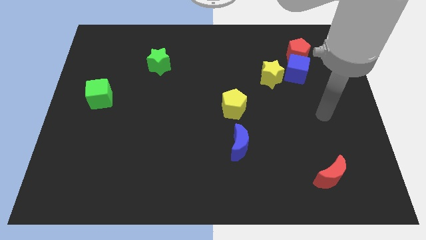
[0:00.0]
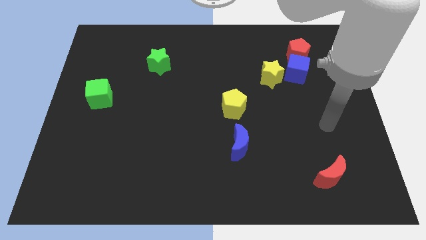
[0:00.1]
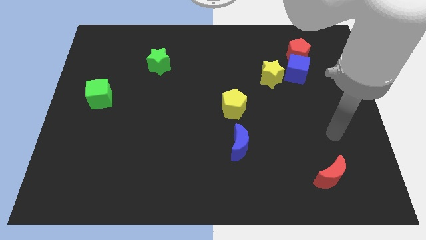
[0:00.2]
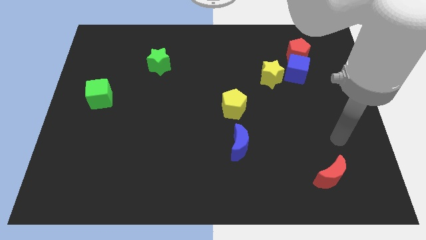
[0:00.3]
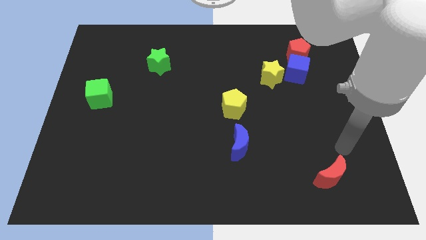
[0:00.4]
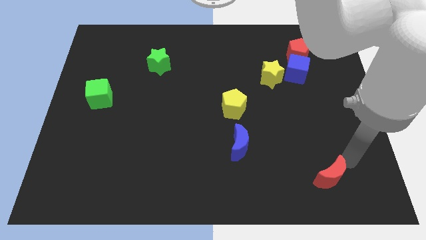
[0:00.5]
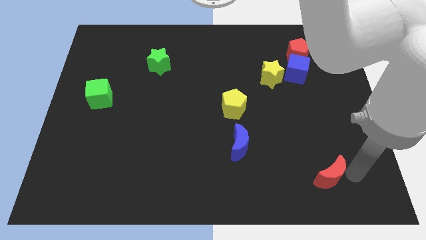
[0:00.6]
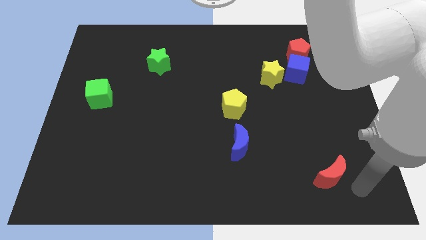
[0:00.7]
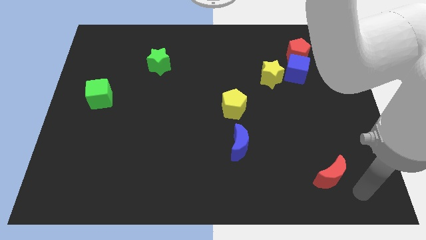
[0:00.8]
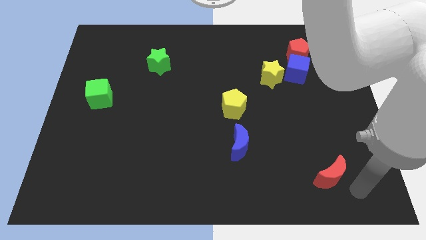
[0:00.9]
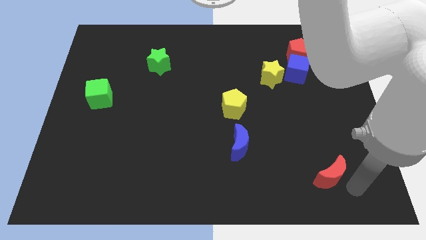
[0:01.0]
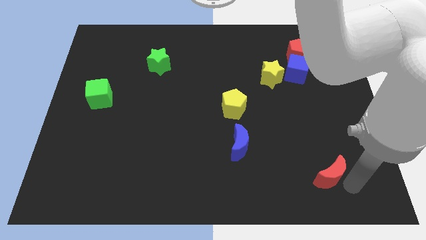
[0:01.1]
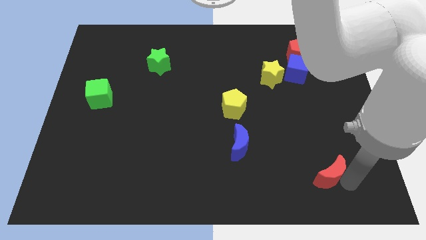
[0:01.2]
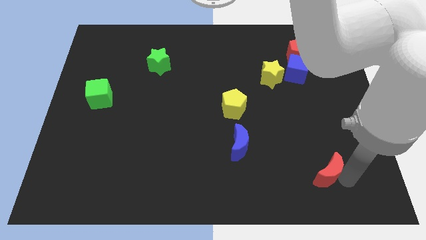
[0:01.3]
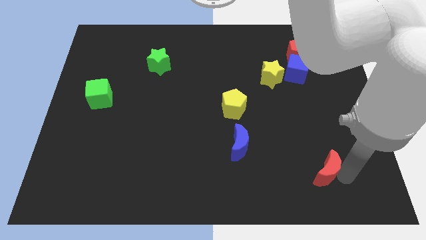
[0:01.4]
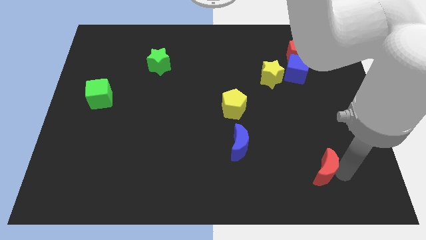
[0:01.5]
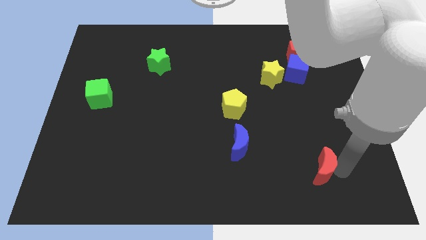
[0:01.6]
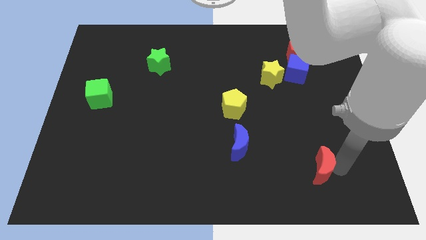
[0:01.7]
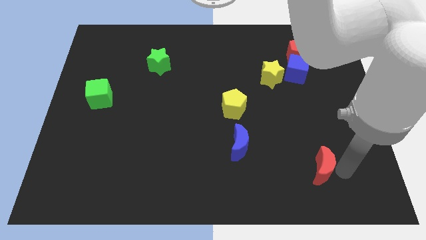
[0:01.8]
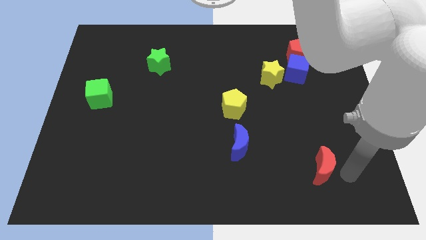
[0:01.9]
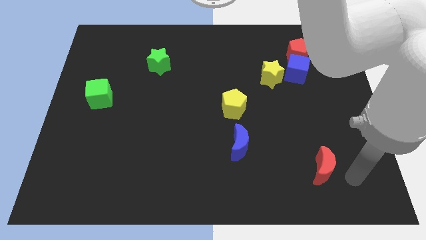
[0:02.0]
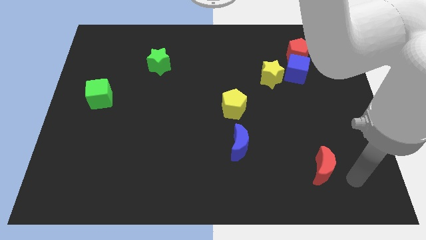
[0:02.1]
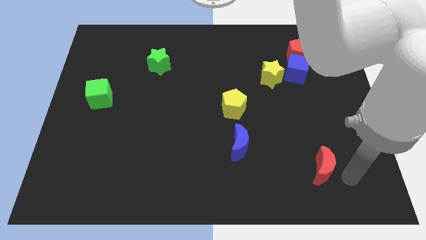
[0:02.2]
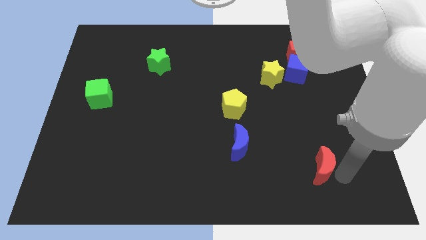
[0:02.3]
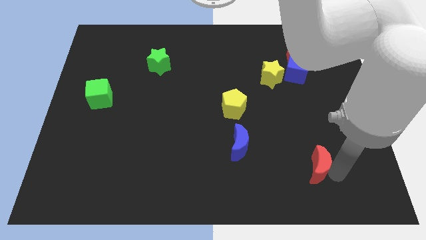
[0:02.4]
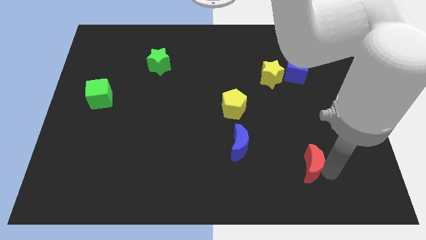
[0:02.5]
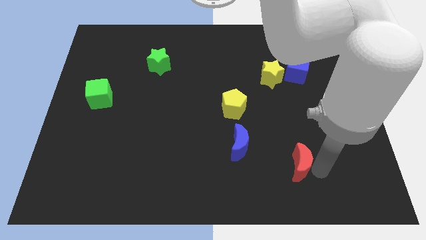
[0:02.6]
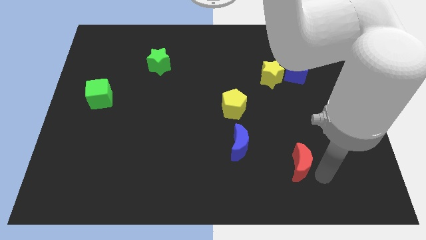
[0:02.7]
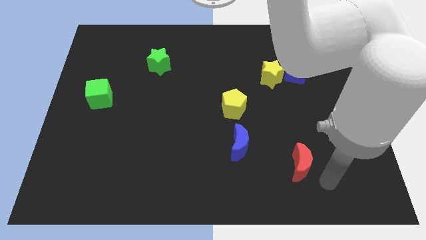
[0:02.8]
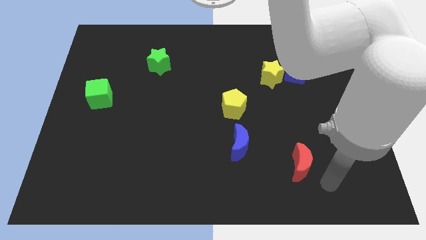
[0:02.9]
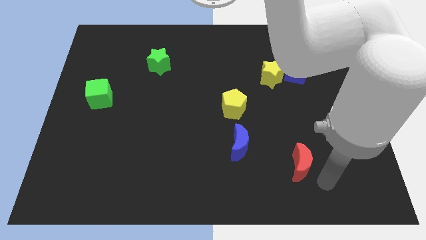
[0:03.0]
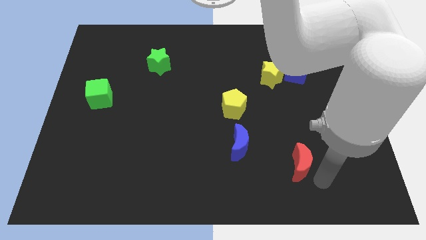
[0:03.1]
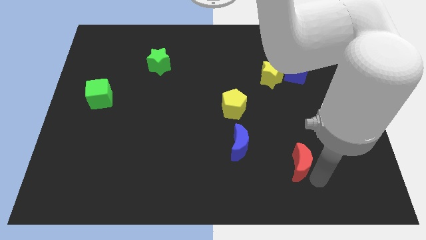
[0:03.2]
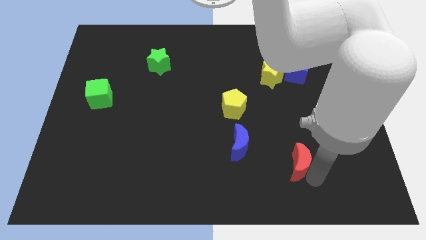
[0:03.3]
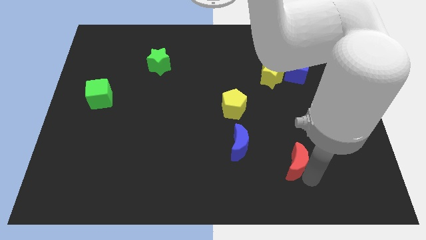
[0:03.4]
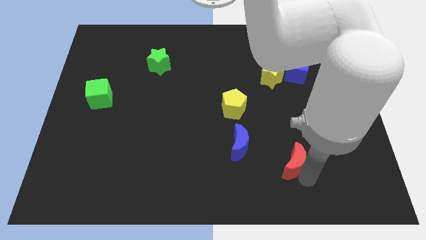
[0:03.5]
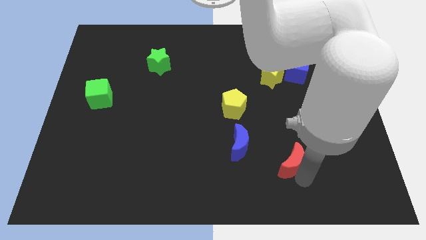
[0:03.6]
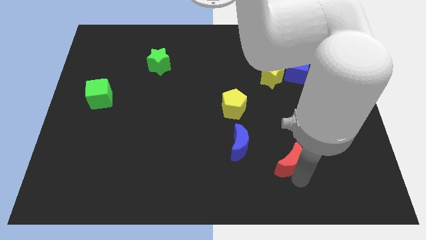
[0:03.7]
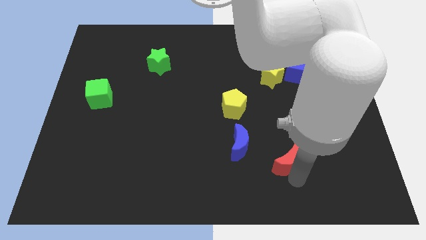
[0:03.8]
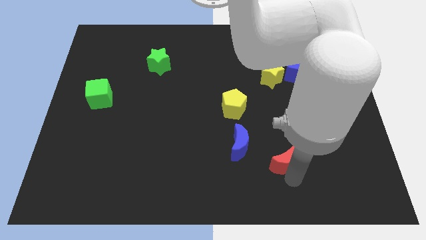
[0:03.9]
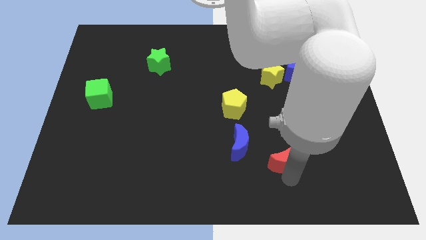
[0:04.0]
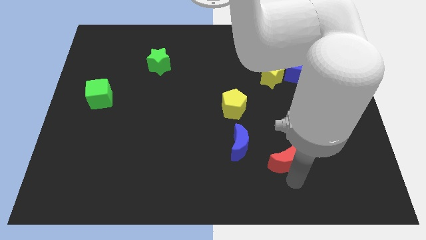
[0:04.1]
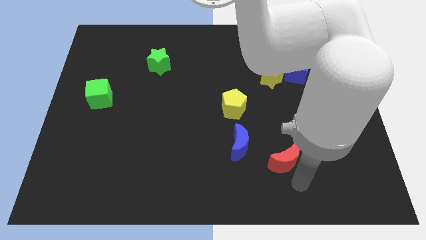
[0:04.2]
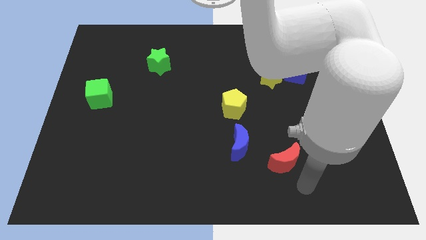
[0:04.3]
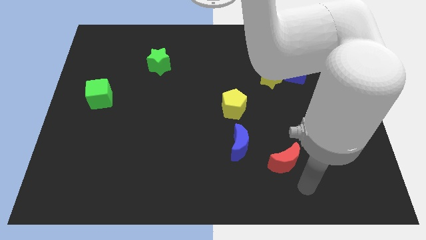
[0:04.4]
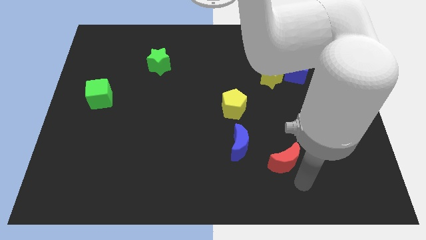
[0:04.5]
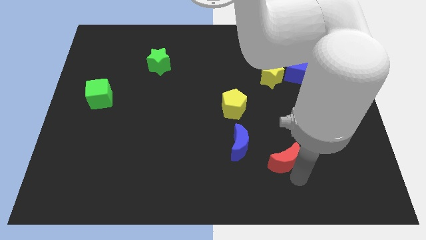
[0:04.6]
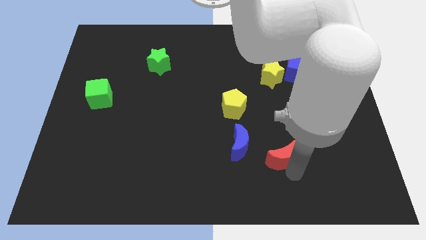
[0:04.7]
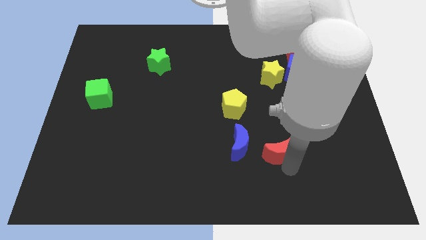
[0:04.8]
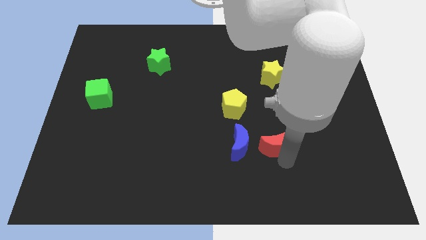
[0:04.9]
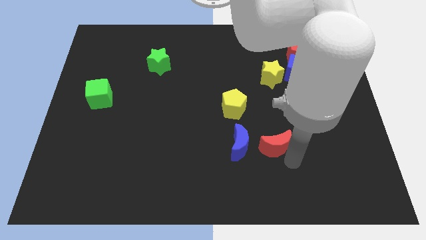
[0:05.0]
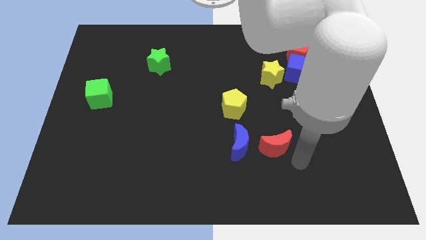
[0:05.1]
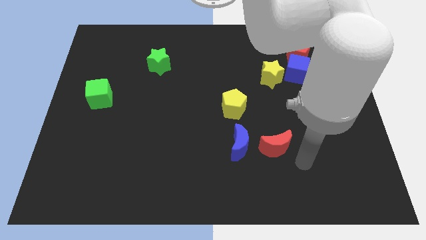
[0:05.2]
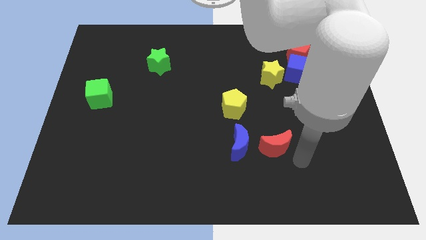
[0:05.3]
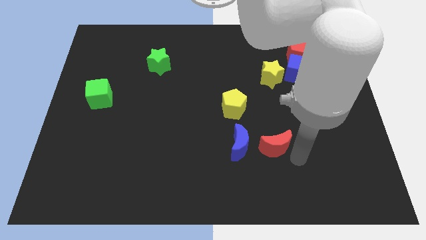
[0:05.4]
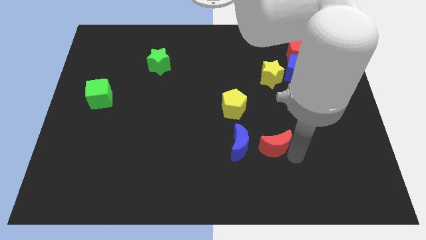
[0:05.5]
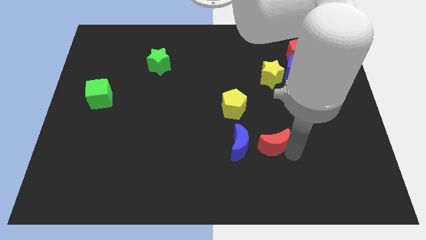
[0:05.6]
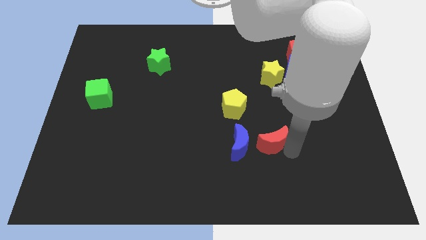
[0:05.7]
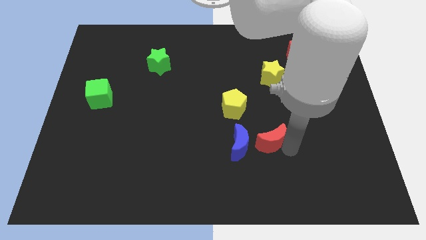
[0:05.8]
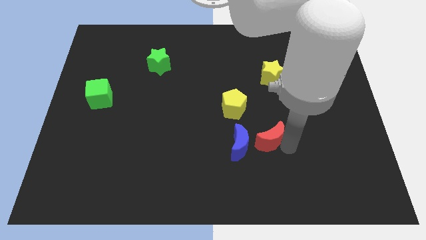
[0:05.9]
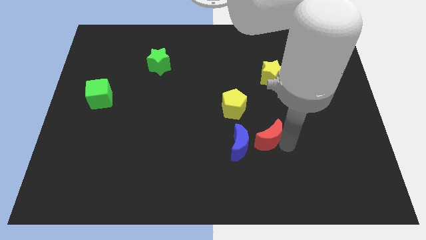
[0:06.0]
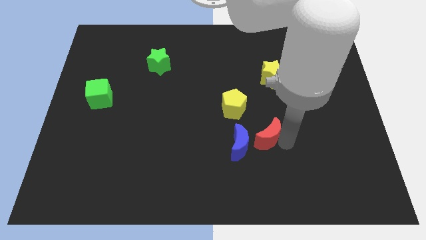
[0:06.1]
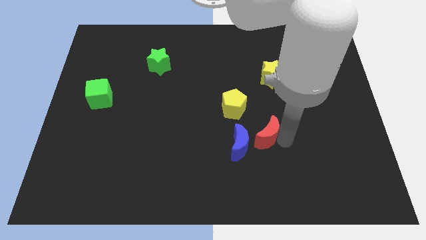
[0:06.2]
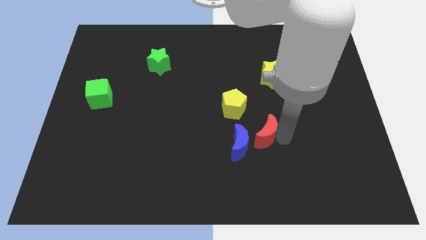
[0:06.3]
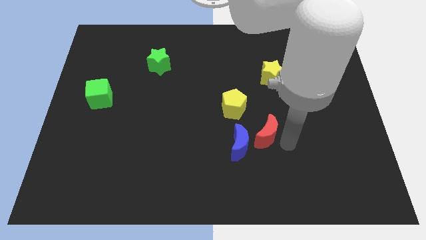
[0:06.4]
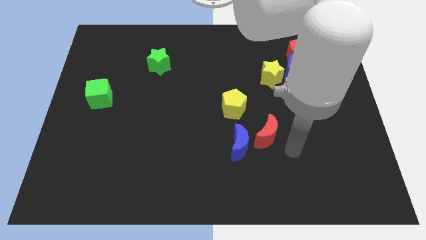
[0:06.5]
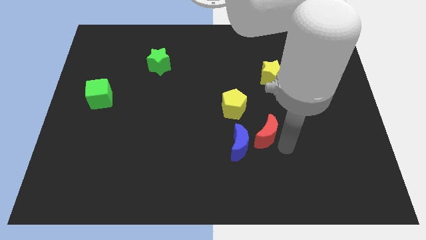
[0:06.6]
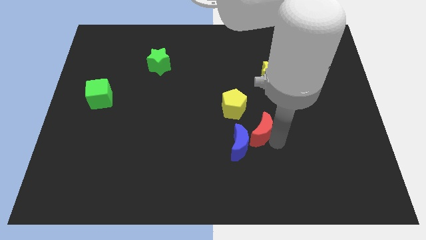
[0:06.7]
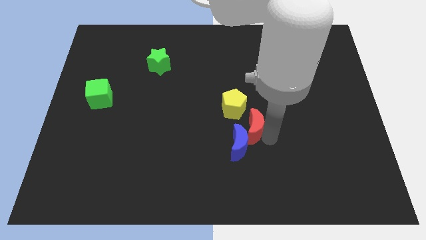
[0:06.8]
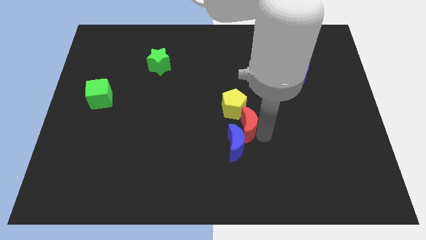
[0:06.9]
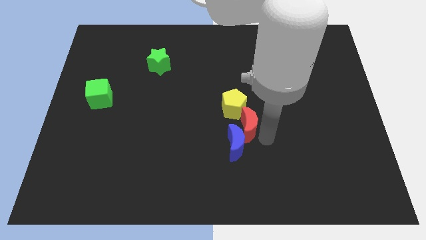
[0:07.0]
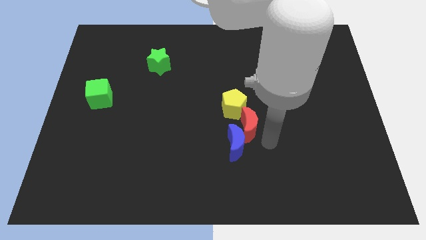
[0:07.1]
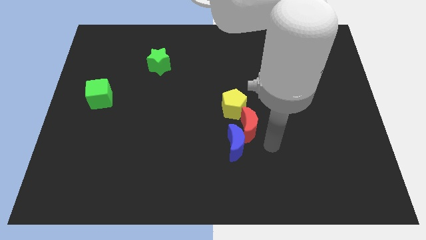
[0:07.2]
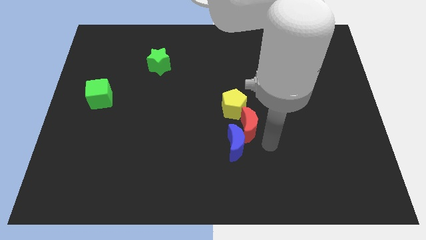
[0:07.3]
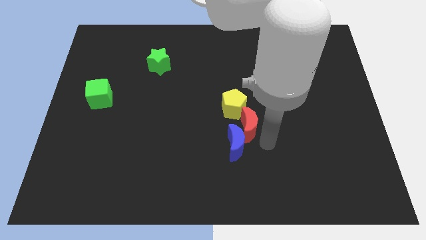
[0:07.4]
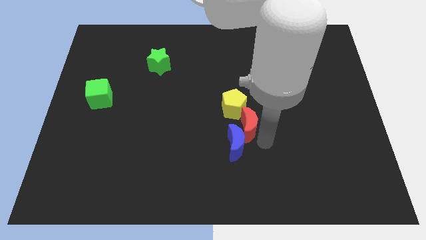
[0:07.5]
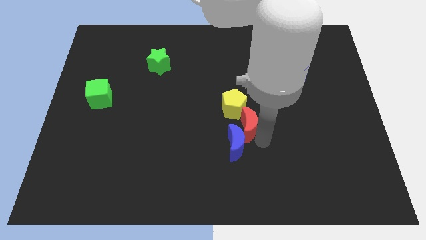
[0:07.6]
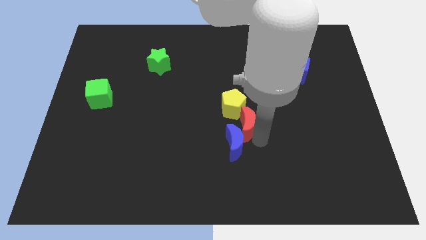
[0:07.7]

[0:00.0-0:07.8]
slide the red moon to the yellow pentagon

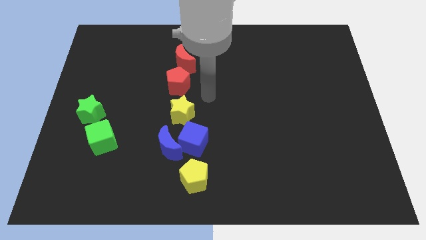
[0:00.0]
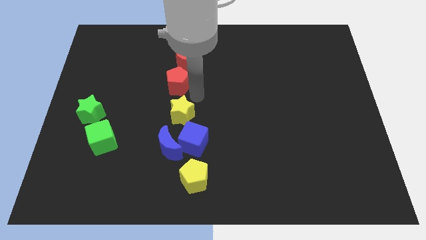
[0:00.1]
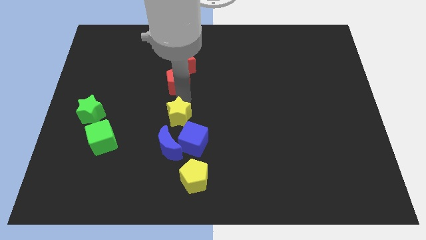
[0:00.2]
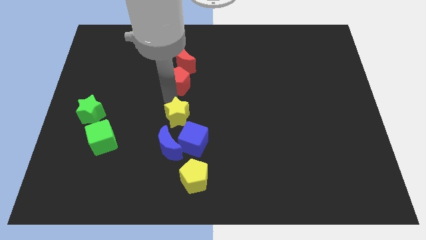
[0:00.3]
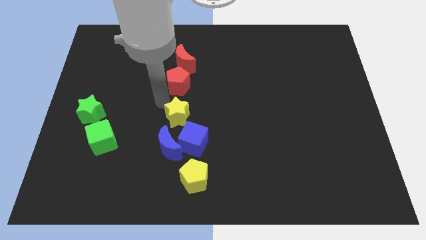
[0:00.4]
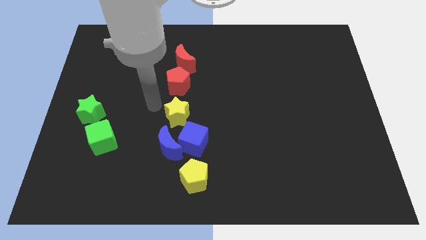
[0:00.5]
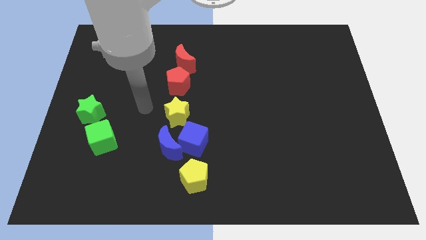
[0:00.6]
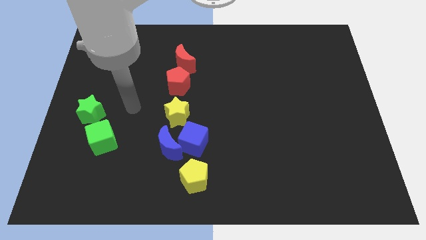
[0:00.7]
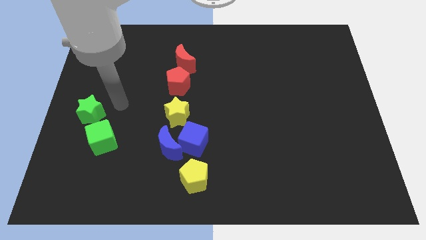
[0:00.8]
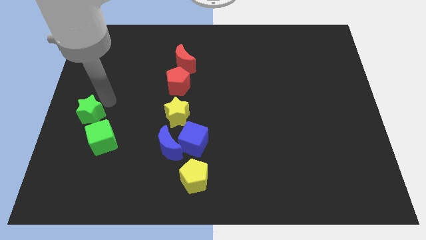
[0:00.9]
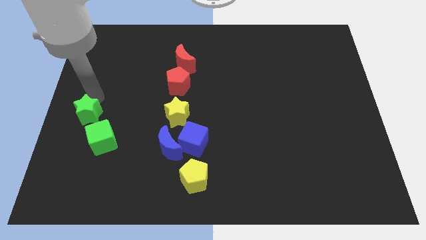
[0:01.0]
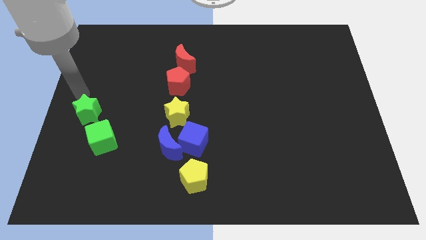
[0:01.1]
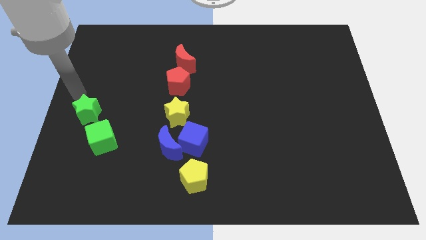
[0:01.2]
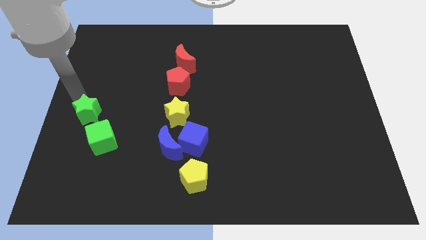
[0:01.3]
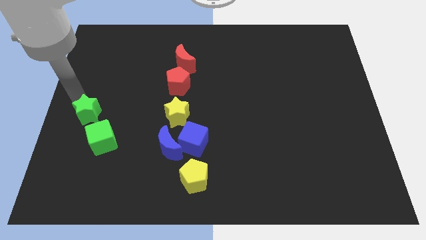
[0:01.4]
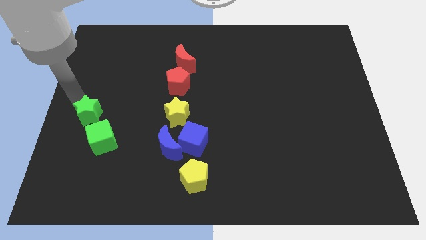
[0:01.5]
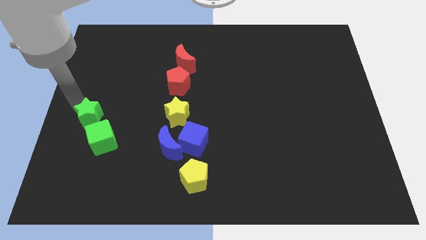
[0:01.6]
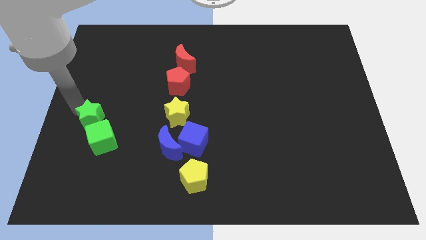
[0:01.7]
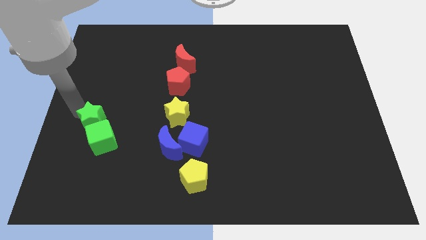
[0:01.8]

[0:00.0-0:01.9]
push the green star close to the green cube
